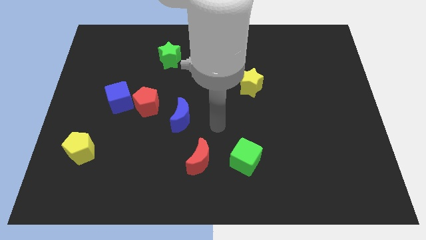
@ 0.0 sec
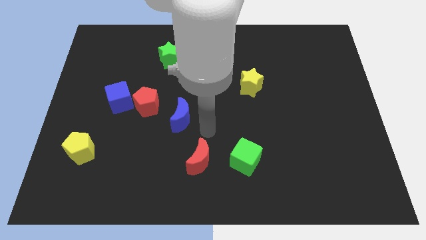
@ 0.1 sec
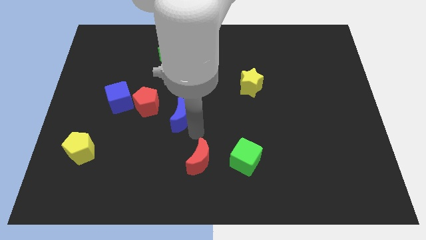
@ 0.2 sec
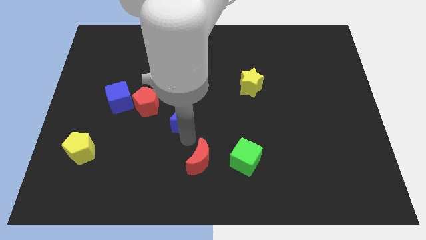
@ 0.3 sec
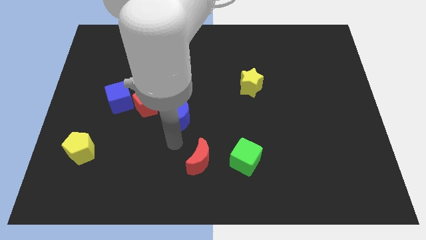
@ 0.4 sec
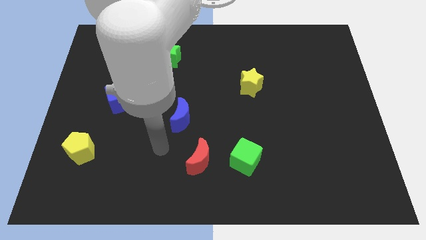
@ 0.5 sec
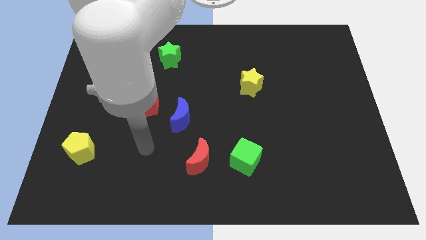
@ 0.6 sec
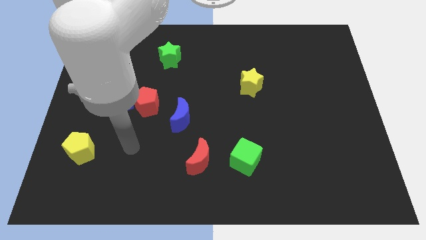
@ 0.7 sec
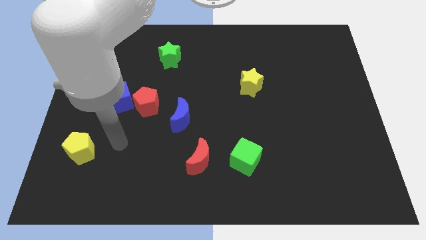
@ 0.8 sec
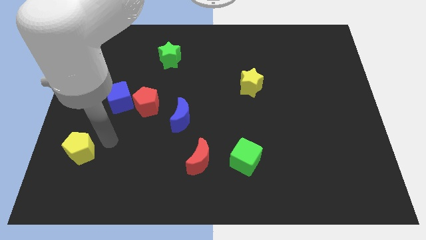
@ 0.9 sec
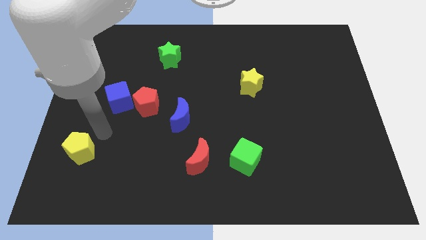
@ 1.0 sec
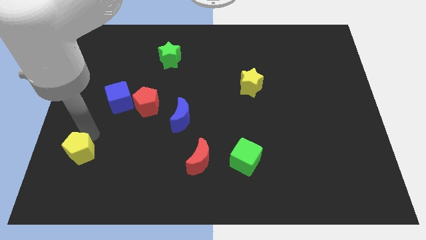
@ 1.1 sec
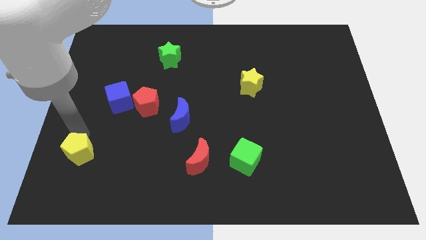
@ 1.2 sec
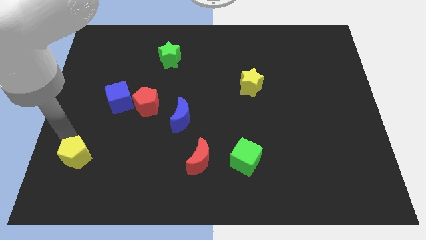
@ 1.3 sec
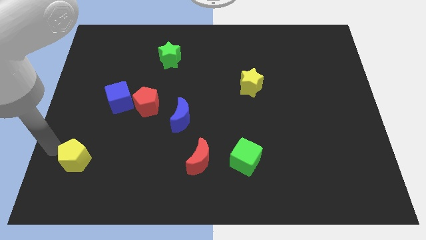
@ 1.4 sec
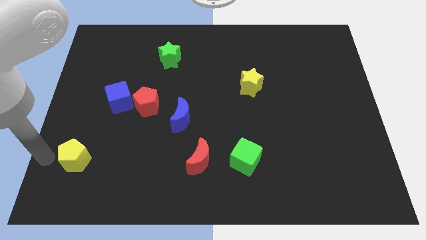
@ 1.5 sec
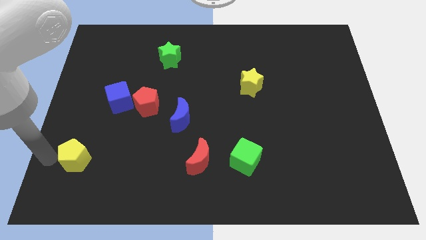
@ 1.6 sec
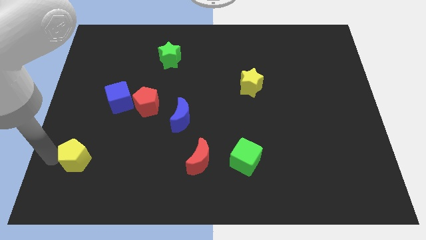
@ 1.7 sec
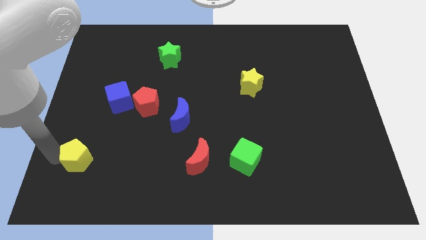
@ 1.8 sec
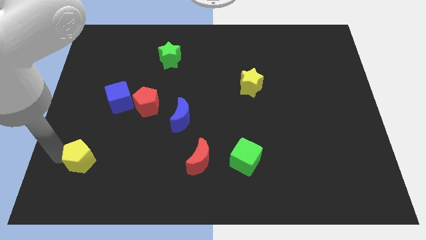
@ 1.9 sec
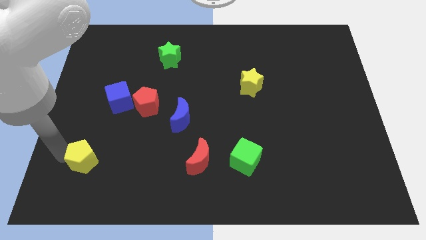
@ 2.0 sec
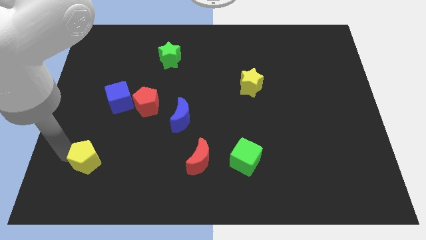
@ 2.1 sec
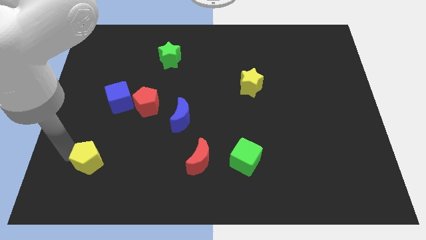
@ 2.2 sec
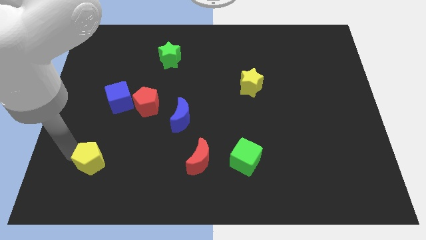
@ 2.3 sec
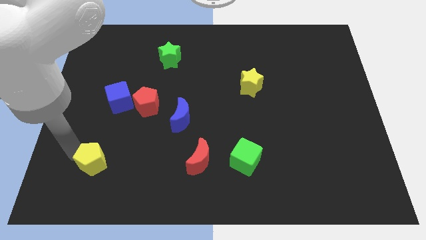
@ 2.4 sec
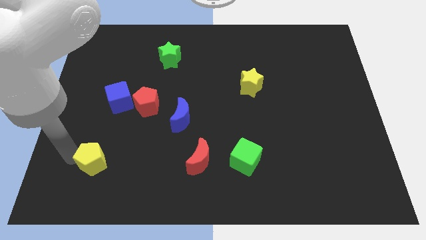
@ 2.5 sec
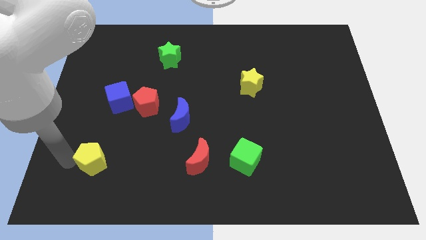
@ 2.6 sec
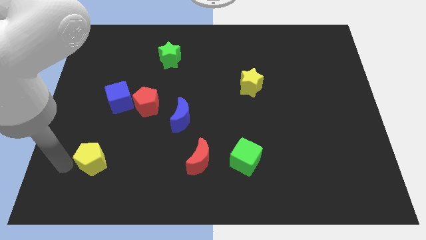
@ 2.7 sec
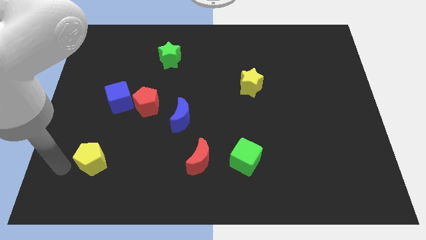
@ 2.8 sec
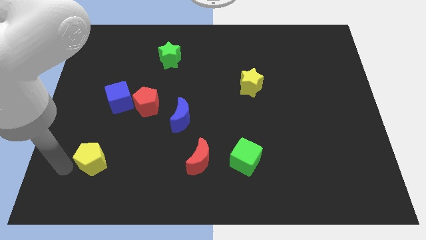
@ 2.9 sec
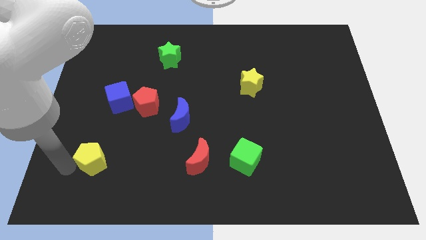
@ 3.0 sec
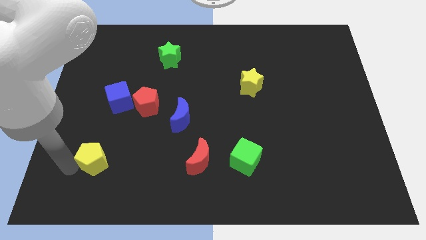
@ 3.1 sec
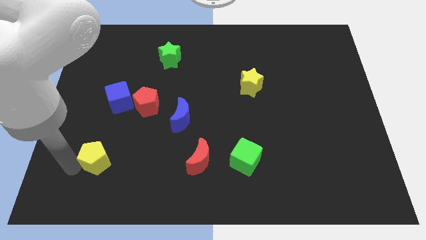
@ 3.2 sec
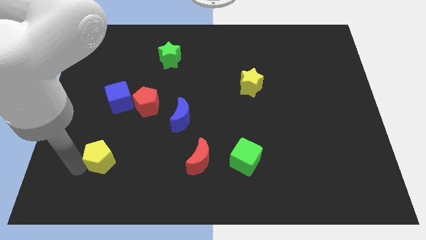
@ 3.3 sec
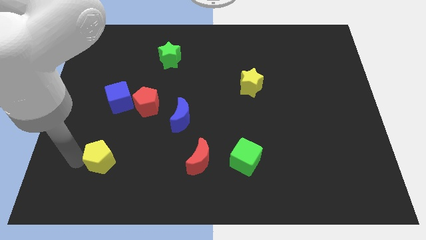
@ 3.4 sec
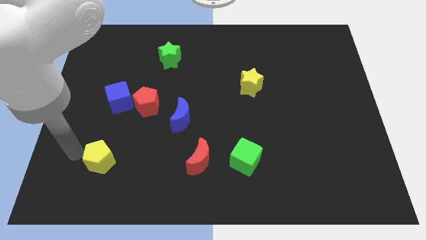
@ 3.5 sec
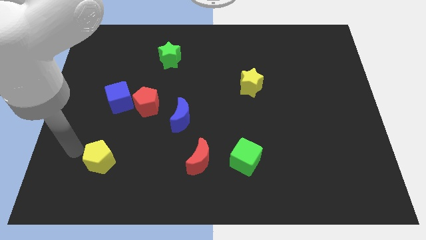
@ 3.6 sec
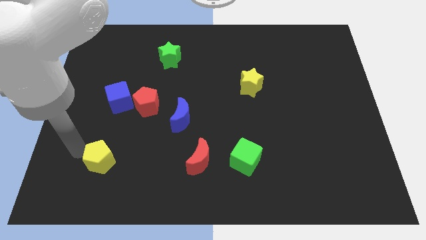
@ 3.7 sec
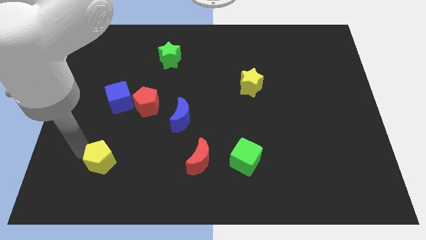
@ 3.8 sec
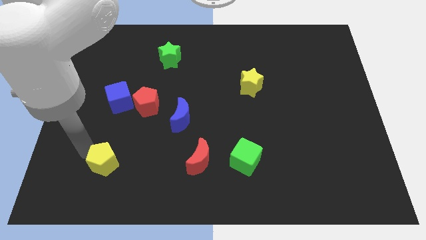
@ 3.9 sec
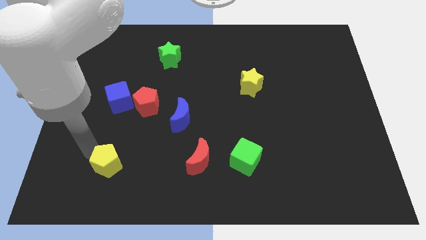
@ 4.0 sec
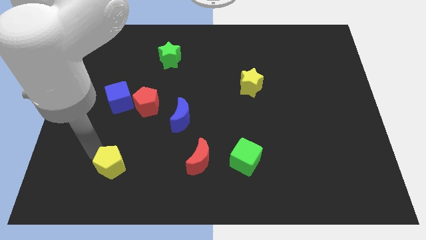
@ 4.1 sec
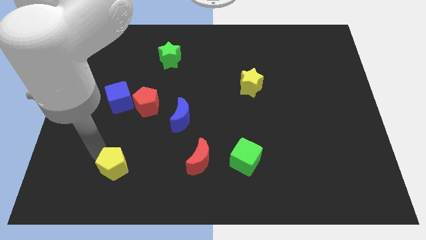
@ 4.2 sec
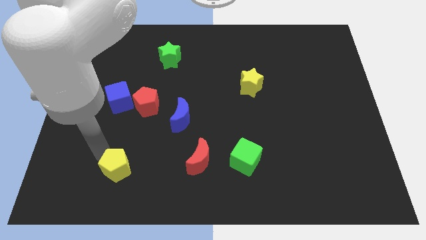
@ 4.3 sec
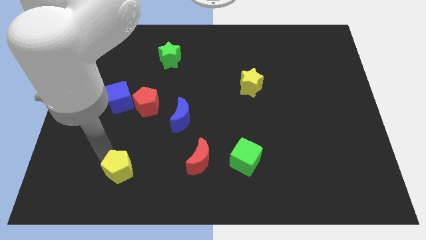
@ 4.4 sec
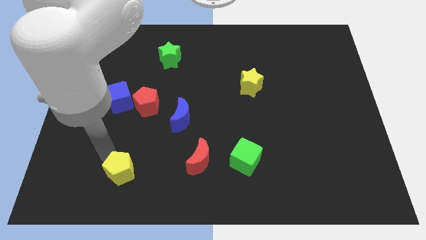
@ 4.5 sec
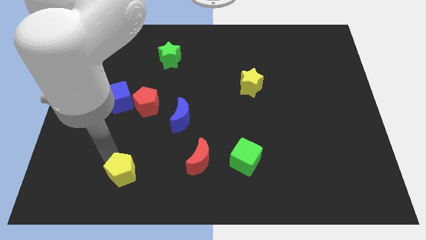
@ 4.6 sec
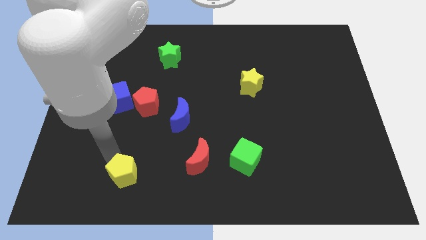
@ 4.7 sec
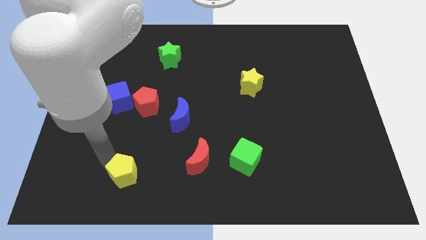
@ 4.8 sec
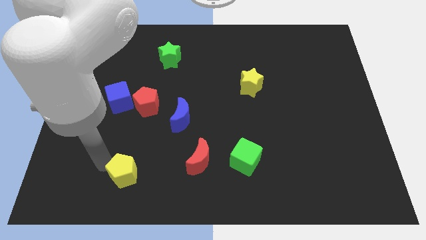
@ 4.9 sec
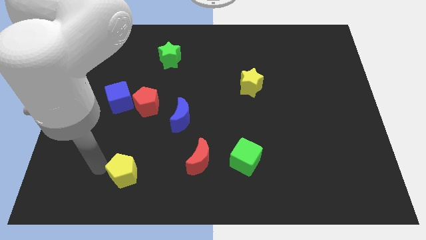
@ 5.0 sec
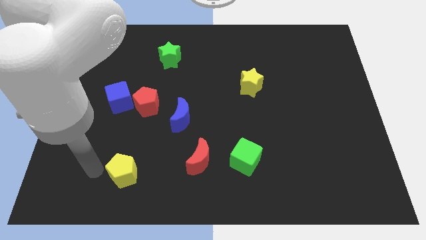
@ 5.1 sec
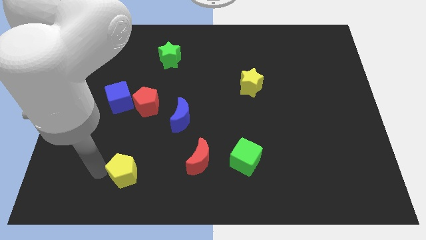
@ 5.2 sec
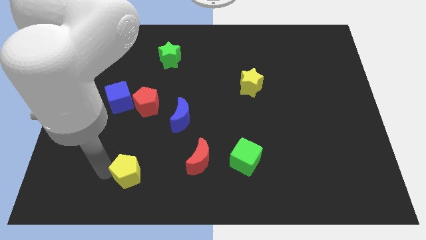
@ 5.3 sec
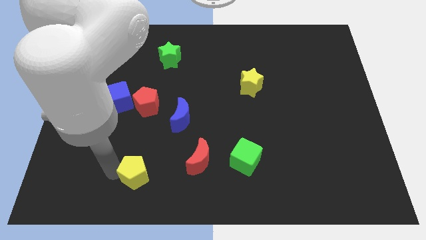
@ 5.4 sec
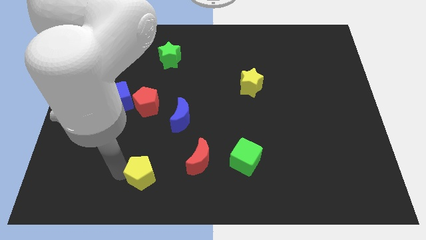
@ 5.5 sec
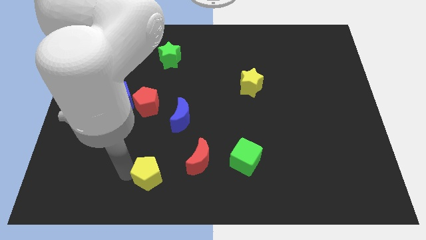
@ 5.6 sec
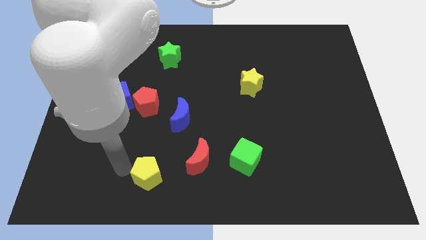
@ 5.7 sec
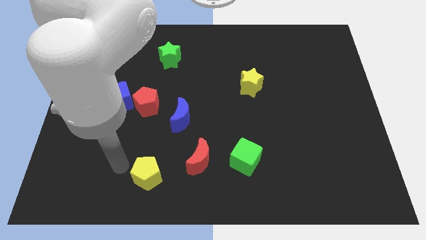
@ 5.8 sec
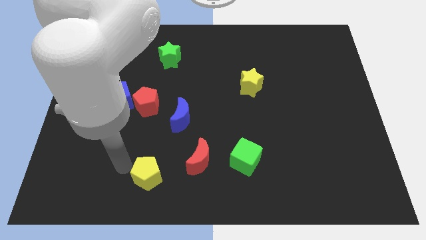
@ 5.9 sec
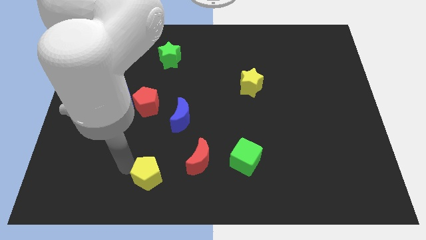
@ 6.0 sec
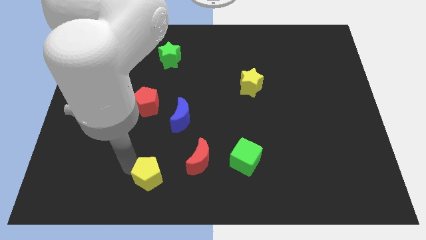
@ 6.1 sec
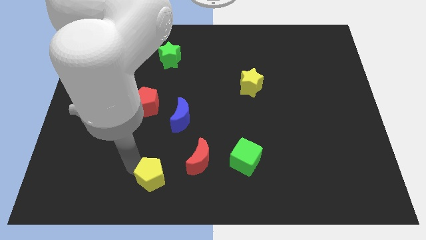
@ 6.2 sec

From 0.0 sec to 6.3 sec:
put the yellow pentagon to the bottom left of the red moon
